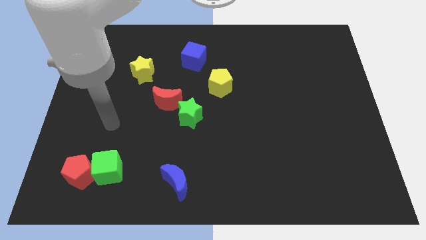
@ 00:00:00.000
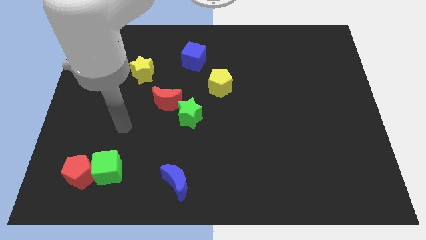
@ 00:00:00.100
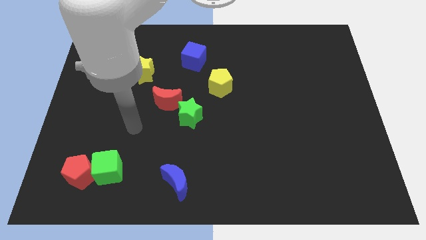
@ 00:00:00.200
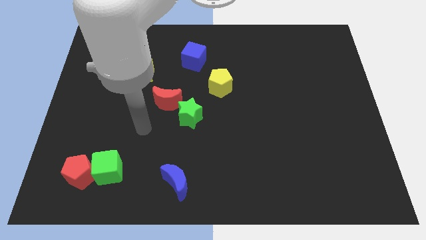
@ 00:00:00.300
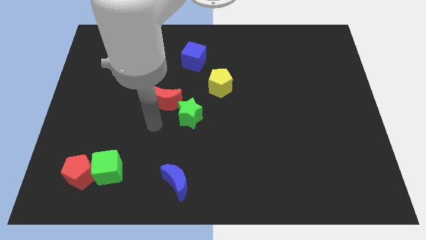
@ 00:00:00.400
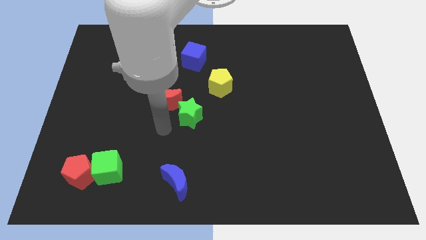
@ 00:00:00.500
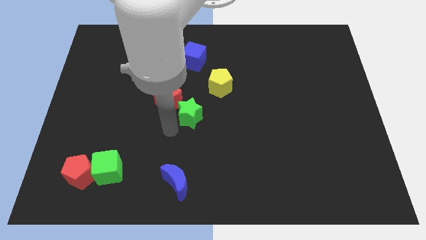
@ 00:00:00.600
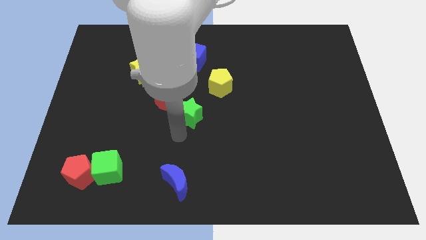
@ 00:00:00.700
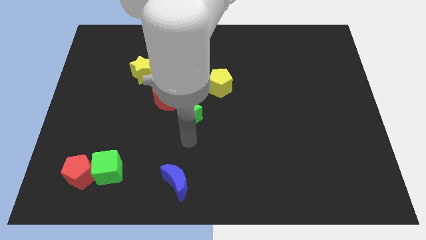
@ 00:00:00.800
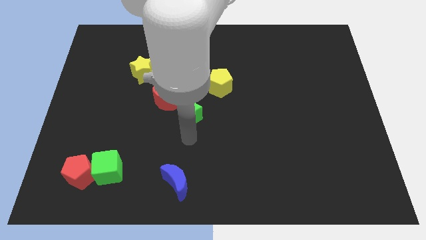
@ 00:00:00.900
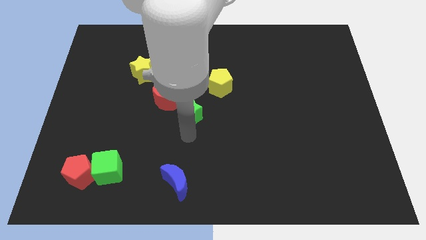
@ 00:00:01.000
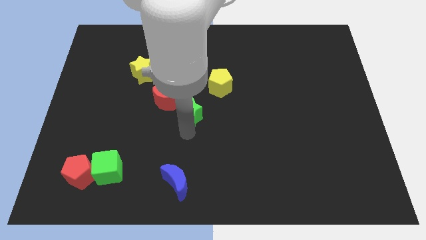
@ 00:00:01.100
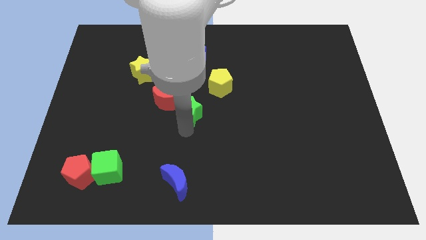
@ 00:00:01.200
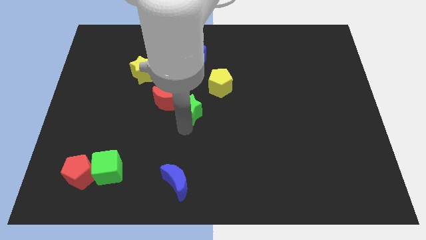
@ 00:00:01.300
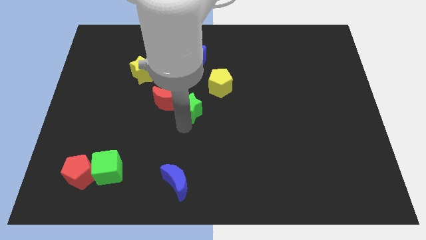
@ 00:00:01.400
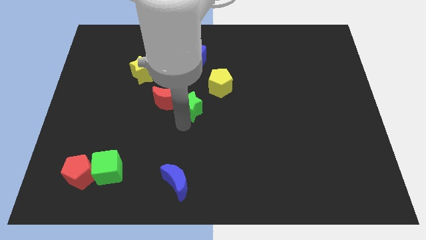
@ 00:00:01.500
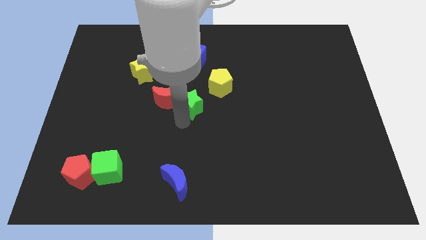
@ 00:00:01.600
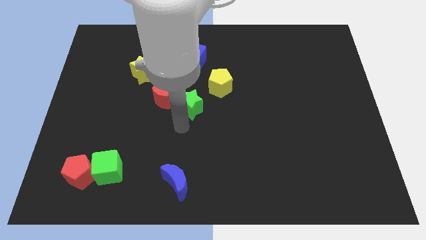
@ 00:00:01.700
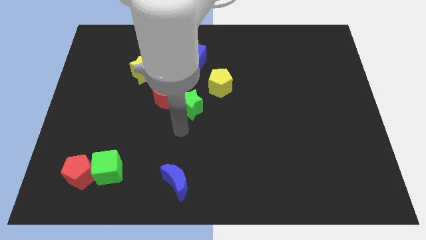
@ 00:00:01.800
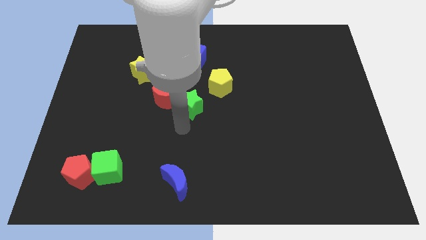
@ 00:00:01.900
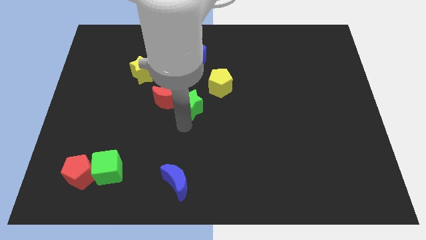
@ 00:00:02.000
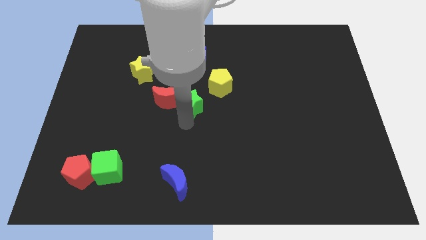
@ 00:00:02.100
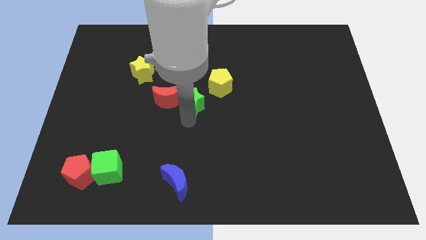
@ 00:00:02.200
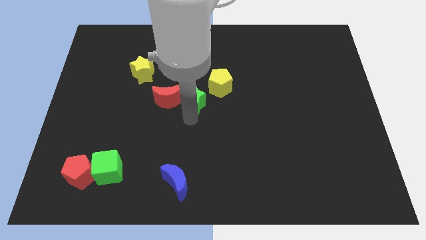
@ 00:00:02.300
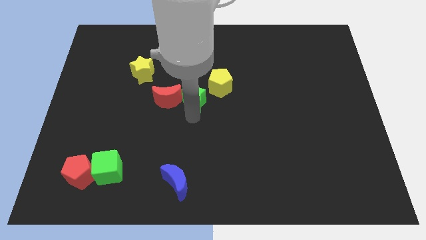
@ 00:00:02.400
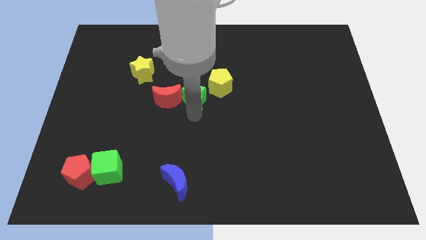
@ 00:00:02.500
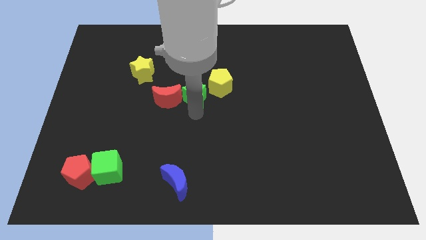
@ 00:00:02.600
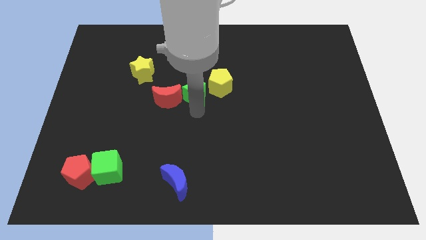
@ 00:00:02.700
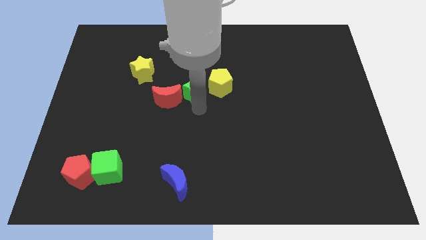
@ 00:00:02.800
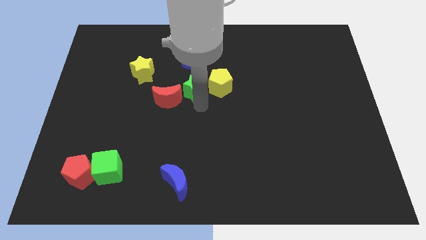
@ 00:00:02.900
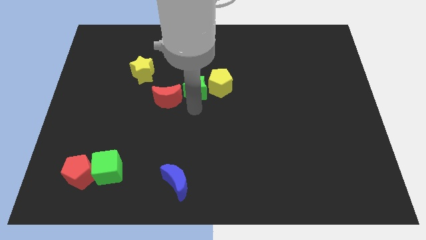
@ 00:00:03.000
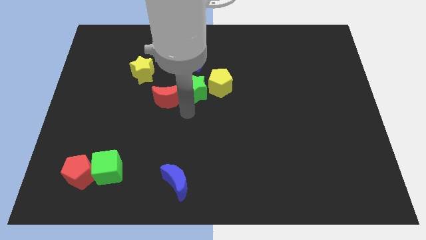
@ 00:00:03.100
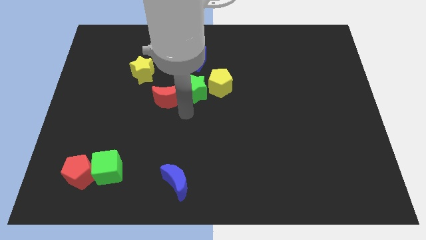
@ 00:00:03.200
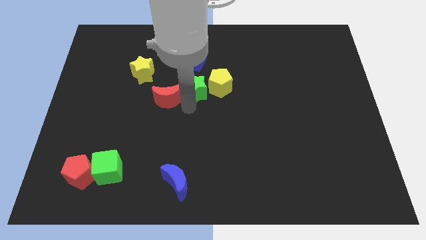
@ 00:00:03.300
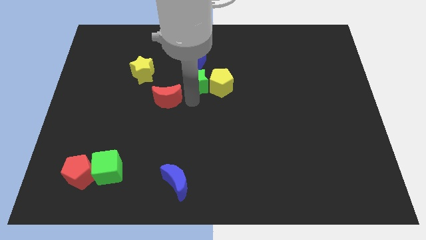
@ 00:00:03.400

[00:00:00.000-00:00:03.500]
push the green star somewhat up and then right

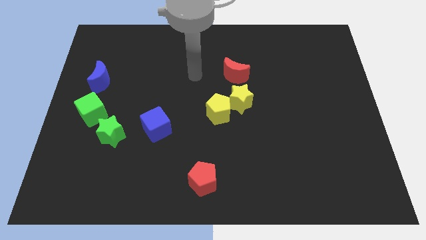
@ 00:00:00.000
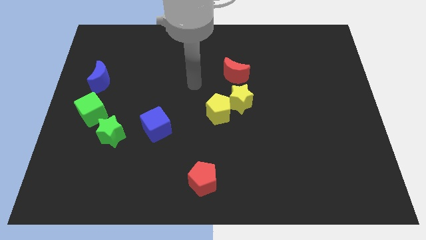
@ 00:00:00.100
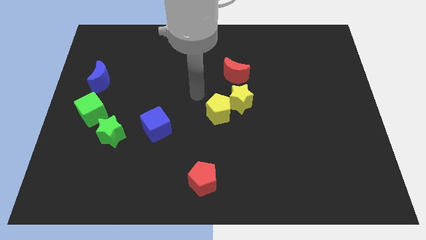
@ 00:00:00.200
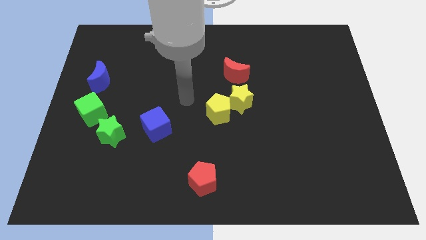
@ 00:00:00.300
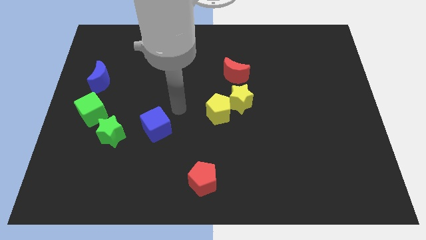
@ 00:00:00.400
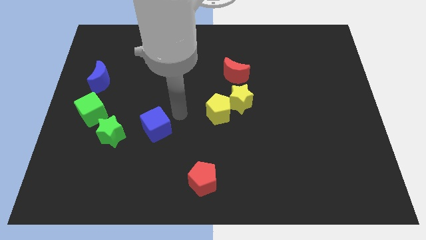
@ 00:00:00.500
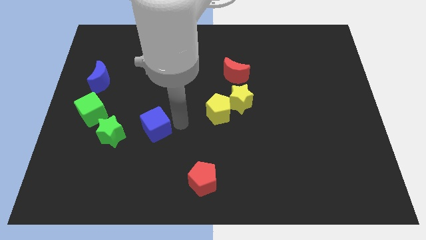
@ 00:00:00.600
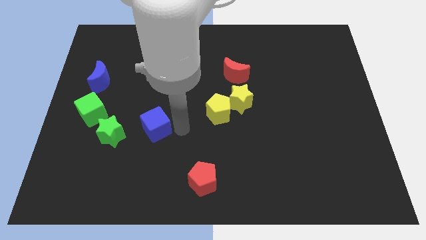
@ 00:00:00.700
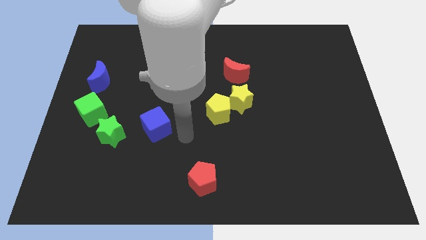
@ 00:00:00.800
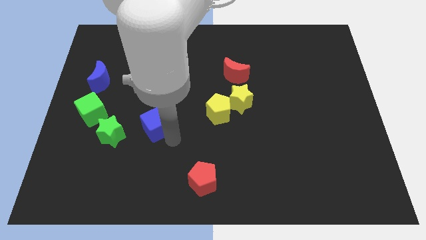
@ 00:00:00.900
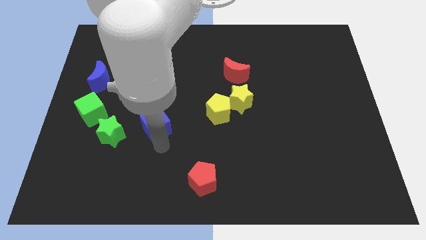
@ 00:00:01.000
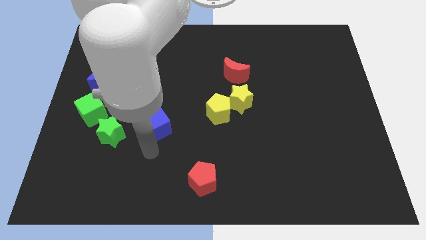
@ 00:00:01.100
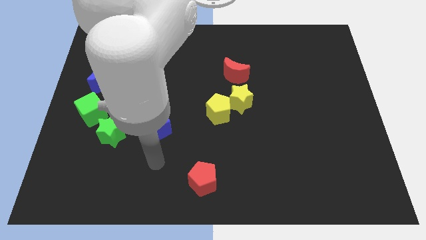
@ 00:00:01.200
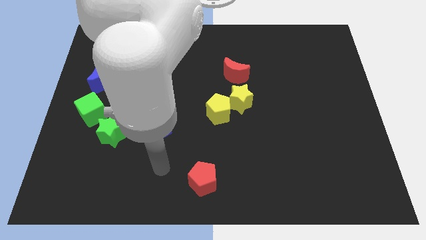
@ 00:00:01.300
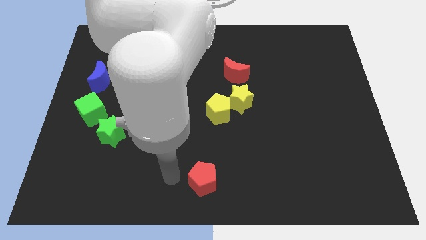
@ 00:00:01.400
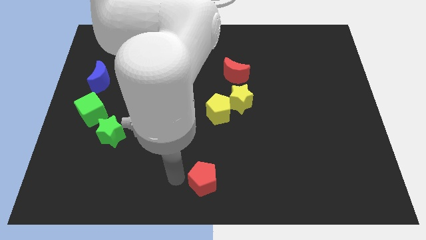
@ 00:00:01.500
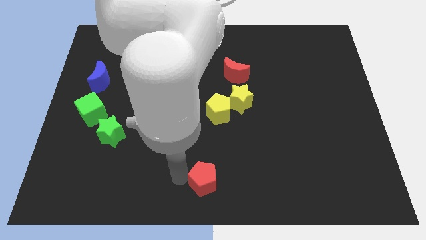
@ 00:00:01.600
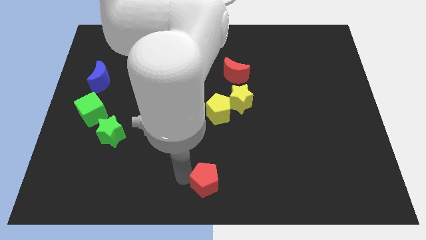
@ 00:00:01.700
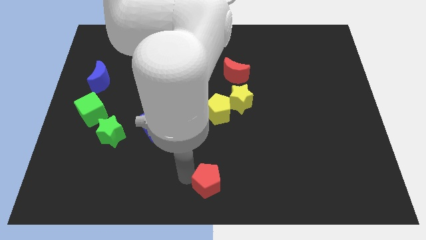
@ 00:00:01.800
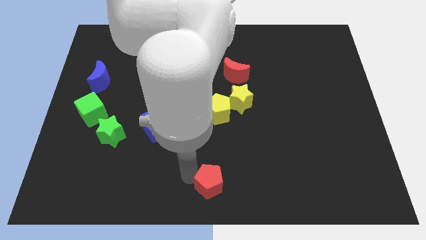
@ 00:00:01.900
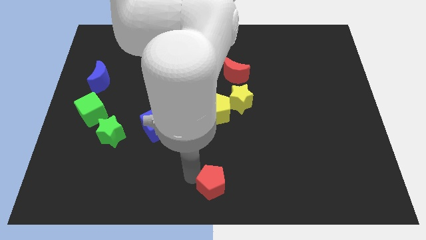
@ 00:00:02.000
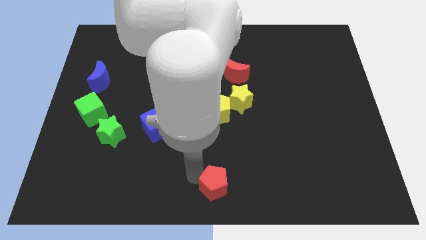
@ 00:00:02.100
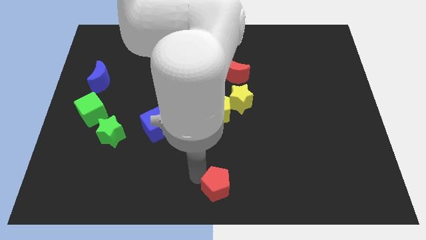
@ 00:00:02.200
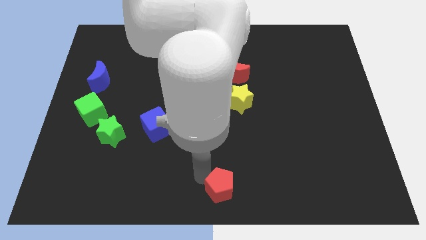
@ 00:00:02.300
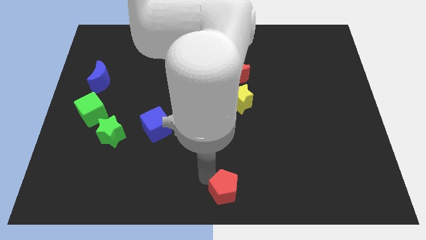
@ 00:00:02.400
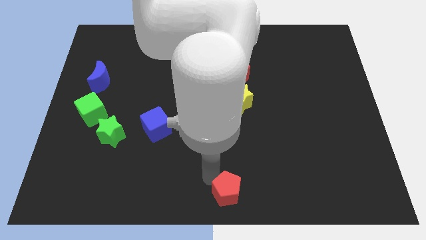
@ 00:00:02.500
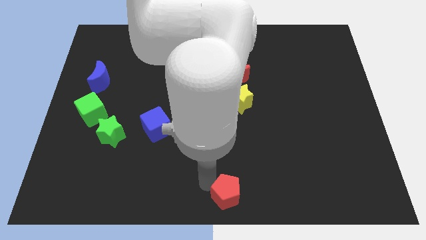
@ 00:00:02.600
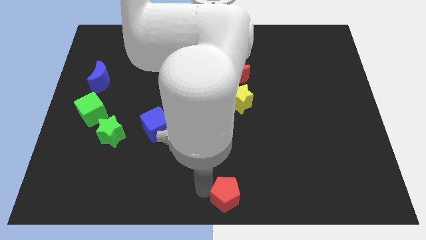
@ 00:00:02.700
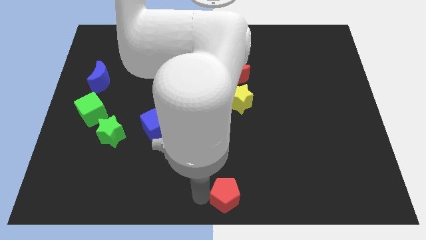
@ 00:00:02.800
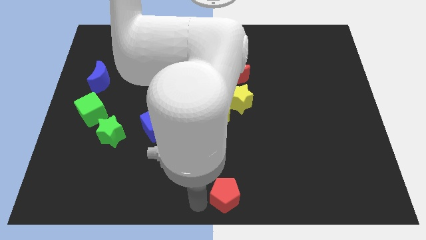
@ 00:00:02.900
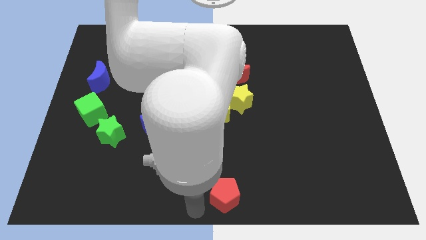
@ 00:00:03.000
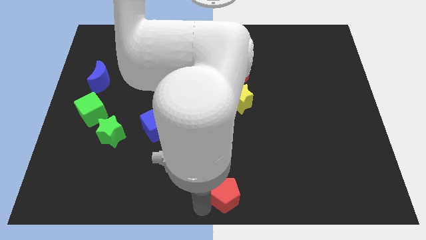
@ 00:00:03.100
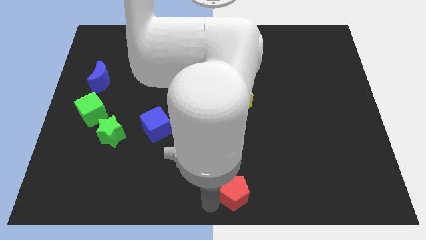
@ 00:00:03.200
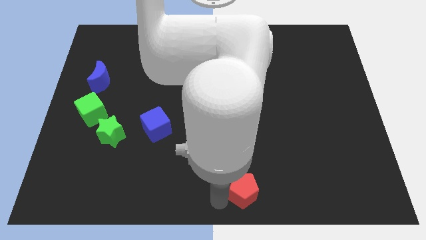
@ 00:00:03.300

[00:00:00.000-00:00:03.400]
slightly slide the red pentagon right

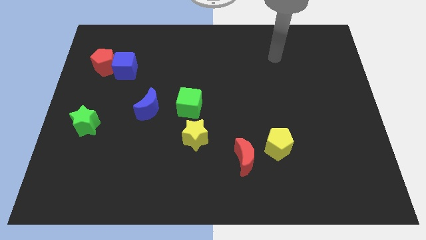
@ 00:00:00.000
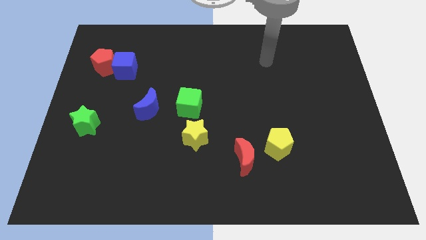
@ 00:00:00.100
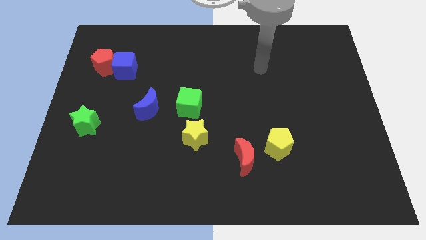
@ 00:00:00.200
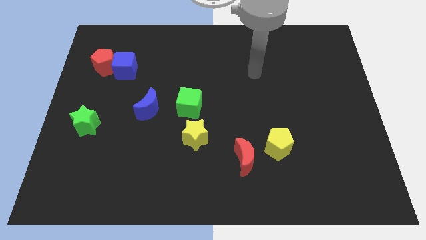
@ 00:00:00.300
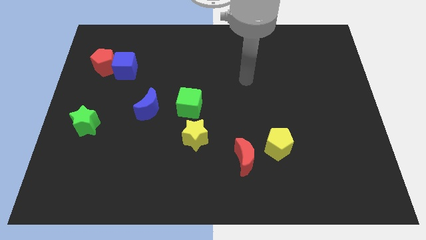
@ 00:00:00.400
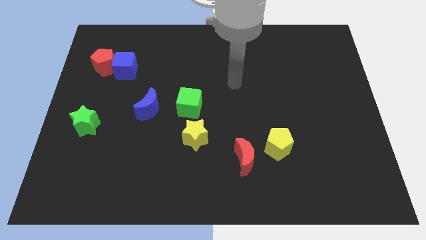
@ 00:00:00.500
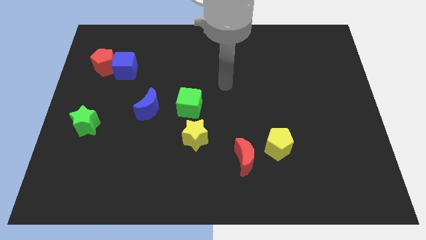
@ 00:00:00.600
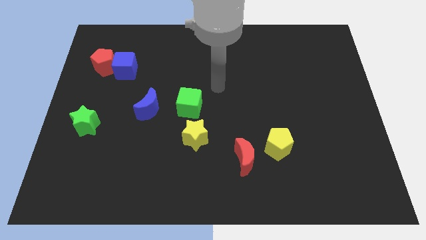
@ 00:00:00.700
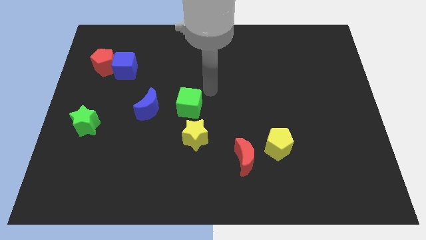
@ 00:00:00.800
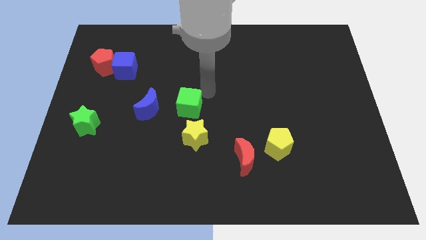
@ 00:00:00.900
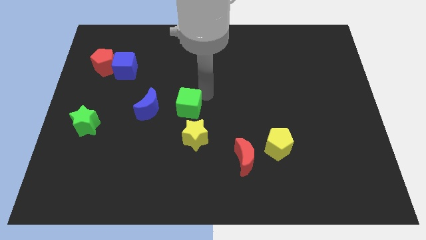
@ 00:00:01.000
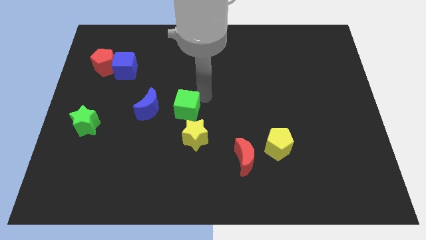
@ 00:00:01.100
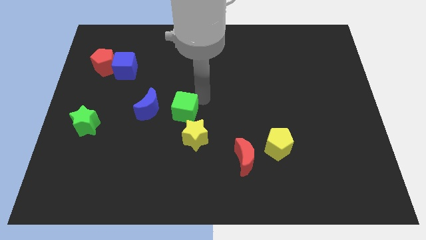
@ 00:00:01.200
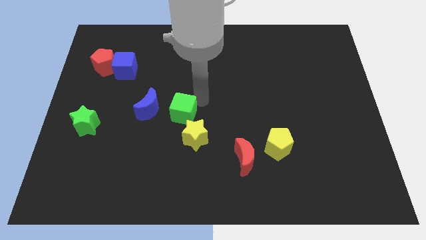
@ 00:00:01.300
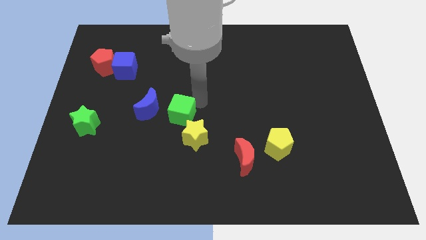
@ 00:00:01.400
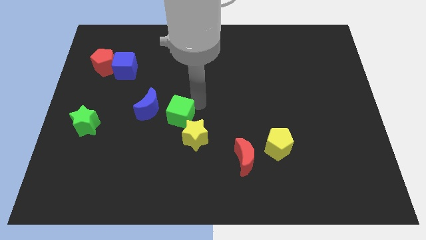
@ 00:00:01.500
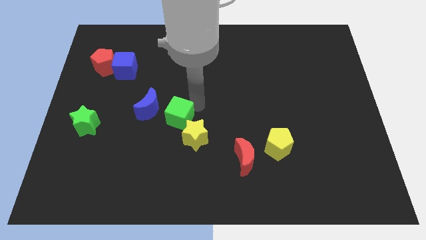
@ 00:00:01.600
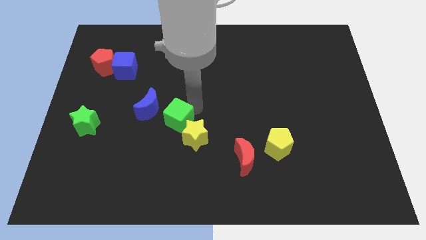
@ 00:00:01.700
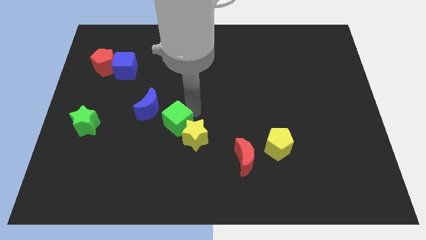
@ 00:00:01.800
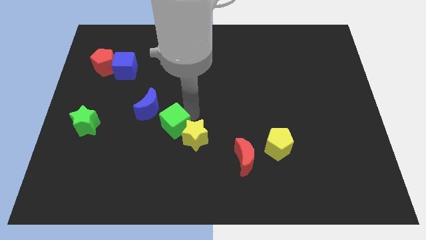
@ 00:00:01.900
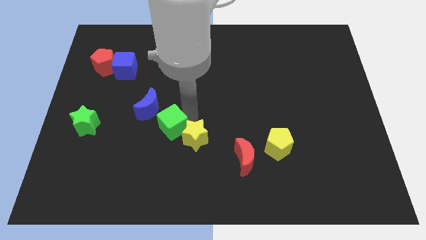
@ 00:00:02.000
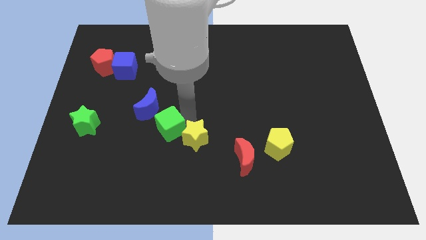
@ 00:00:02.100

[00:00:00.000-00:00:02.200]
slightly move the green cube downwards and to the left diagonally
